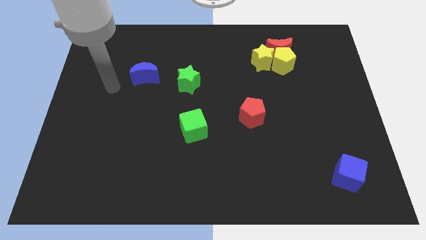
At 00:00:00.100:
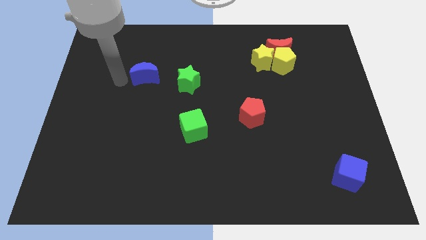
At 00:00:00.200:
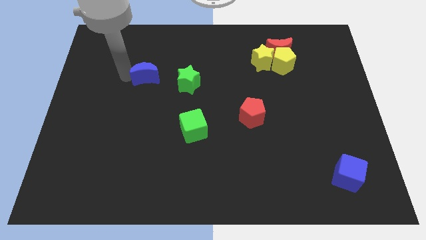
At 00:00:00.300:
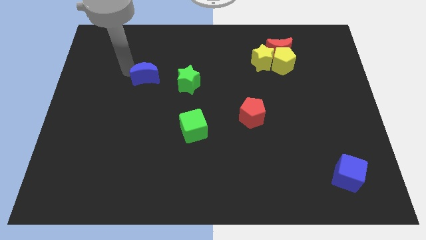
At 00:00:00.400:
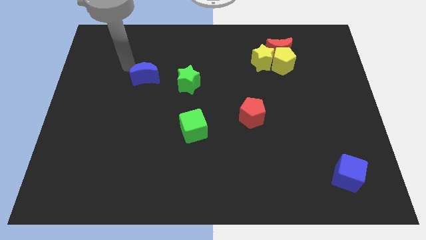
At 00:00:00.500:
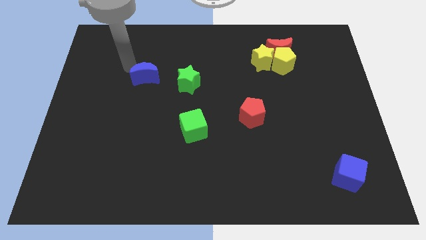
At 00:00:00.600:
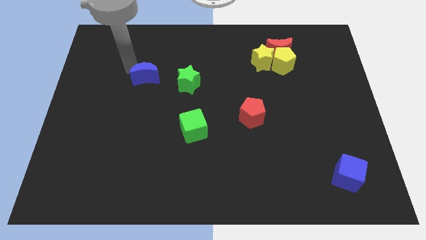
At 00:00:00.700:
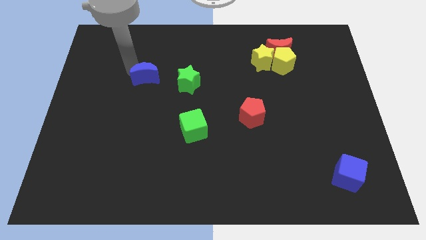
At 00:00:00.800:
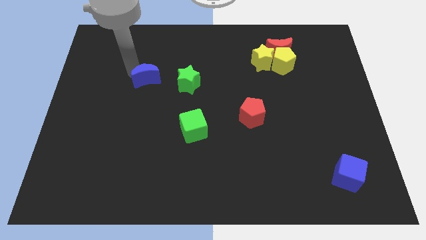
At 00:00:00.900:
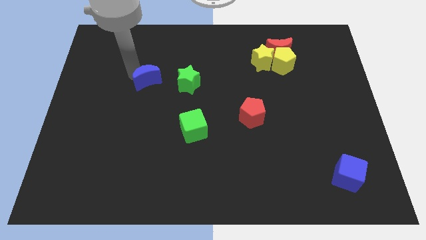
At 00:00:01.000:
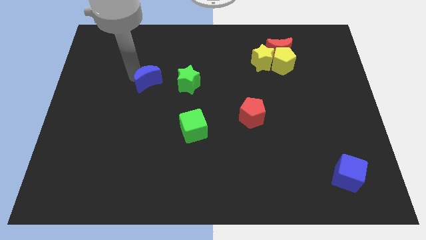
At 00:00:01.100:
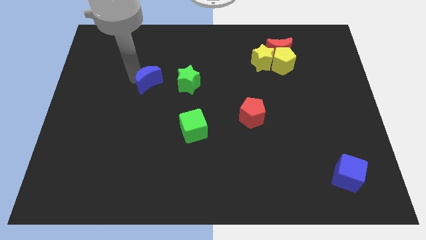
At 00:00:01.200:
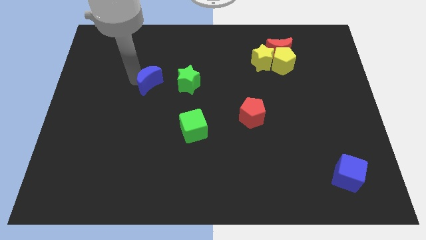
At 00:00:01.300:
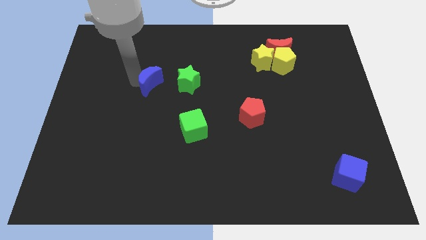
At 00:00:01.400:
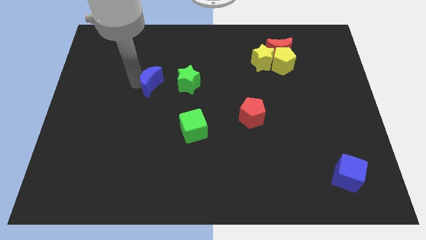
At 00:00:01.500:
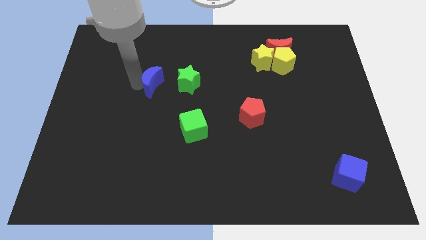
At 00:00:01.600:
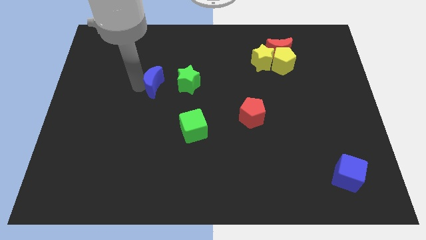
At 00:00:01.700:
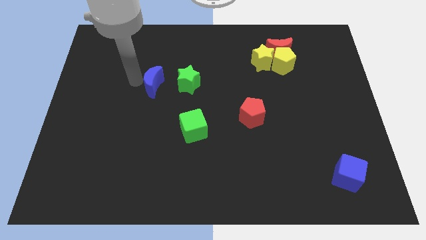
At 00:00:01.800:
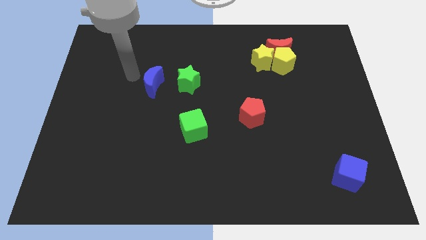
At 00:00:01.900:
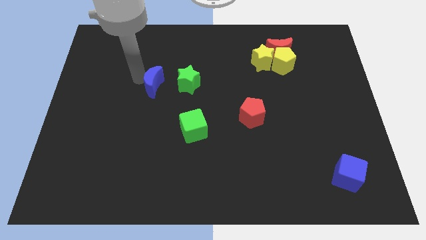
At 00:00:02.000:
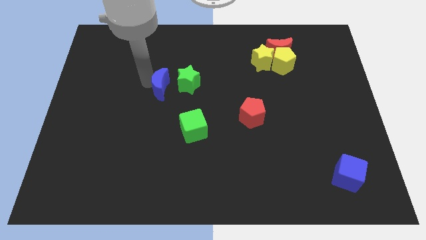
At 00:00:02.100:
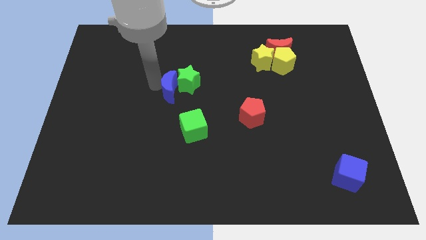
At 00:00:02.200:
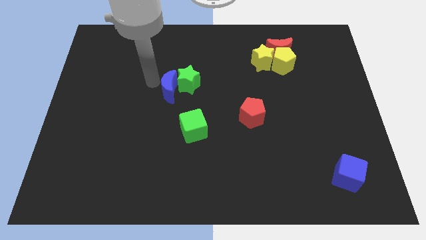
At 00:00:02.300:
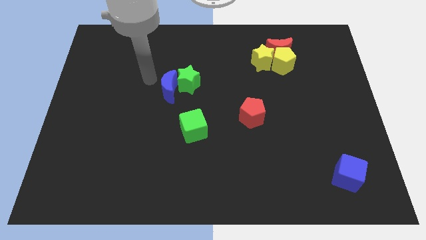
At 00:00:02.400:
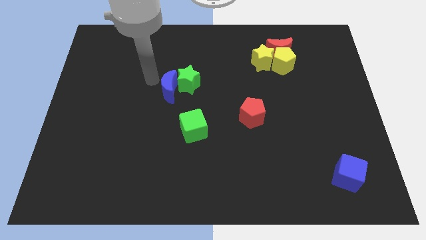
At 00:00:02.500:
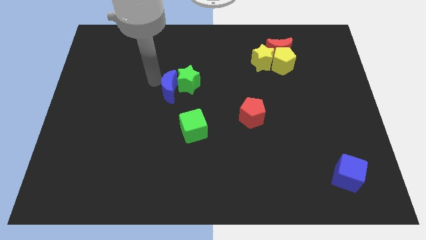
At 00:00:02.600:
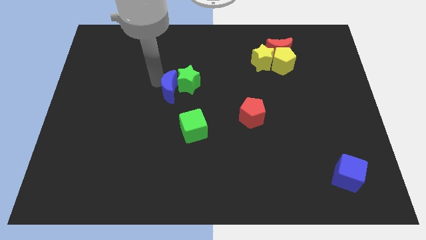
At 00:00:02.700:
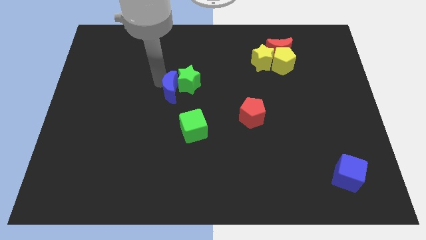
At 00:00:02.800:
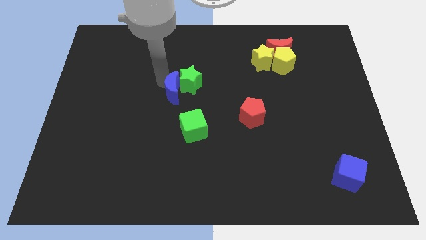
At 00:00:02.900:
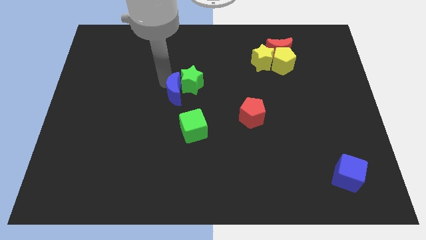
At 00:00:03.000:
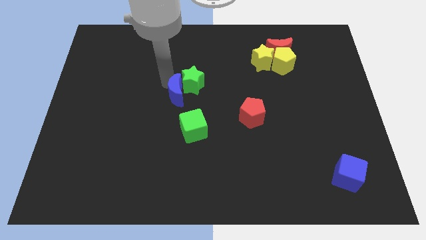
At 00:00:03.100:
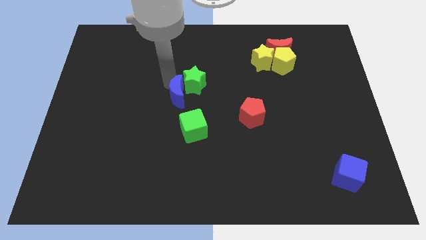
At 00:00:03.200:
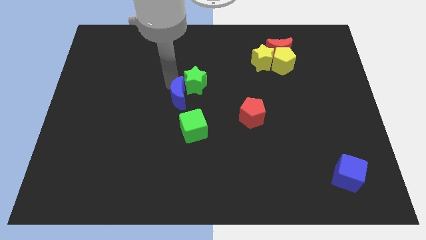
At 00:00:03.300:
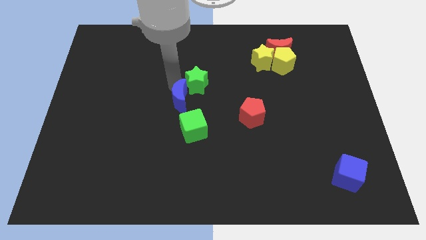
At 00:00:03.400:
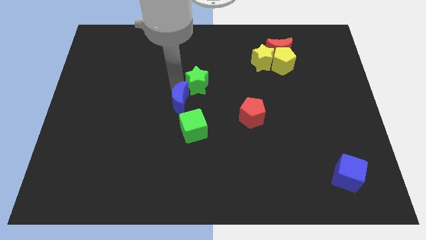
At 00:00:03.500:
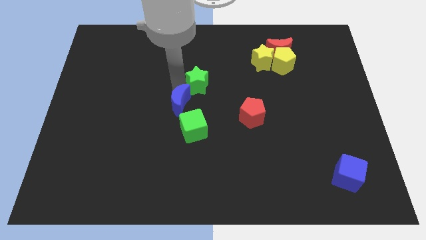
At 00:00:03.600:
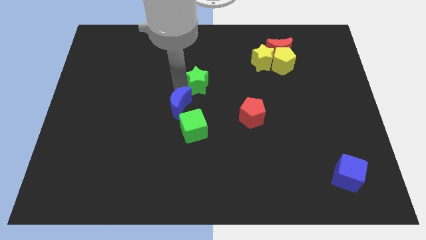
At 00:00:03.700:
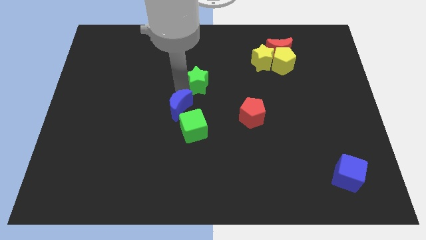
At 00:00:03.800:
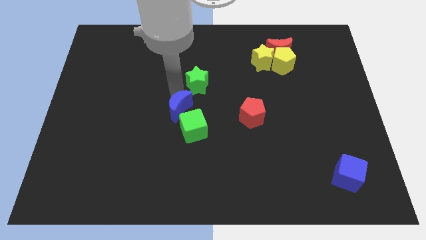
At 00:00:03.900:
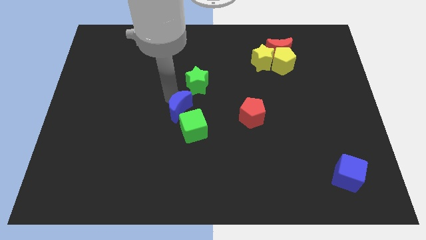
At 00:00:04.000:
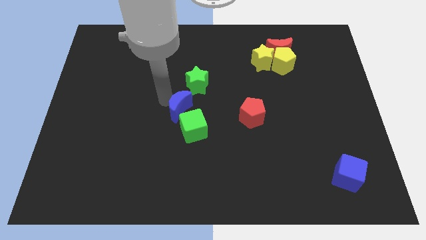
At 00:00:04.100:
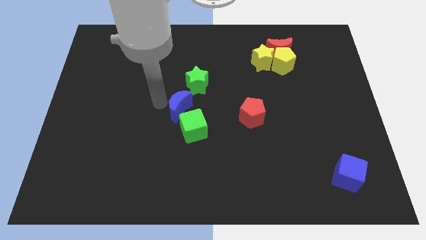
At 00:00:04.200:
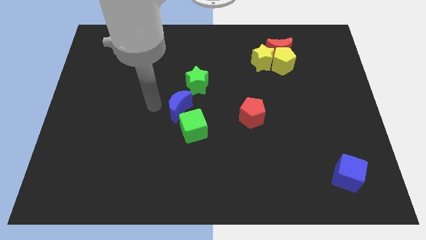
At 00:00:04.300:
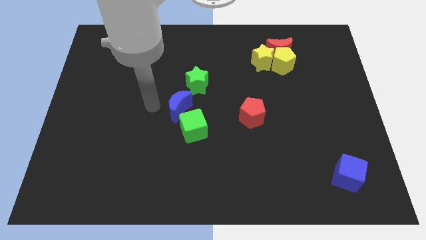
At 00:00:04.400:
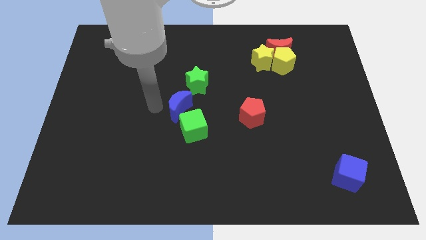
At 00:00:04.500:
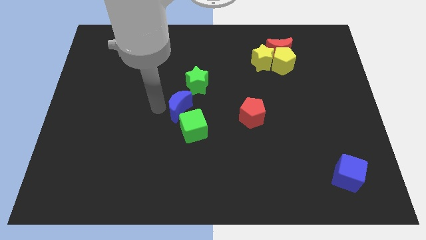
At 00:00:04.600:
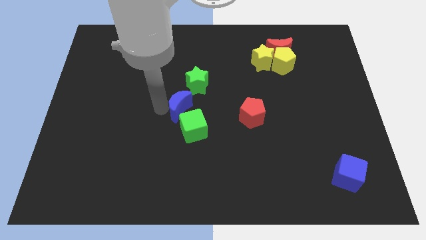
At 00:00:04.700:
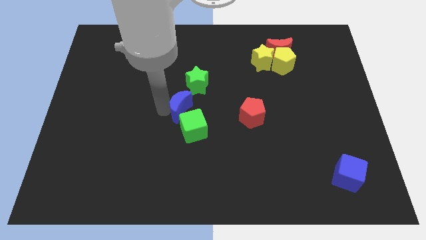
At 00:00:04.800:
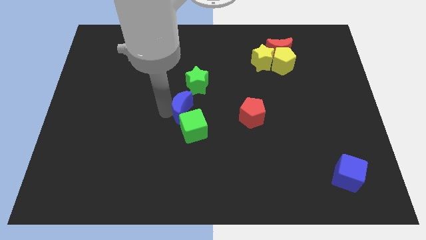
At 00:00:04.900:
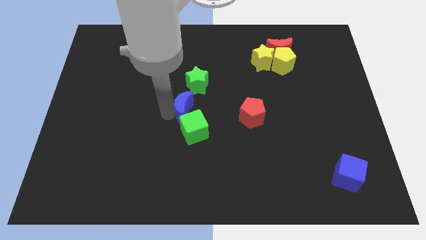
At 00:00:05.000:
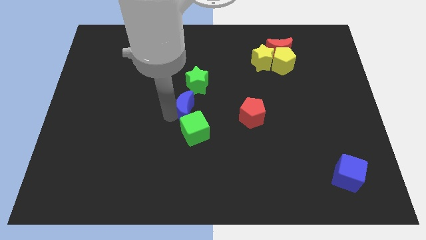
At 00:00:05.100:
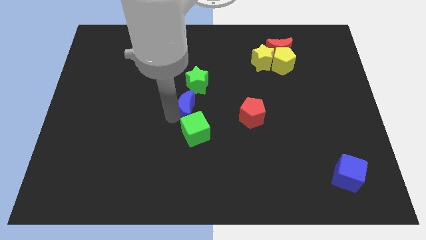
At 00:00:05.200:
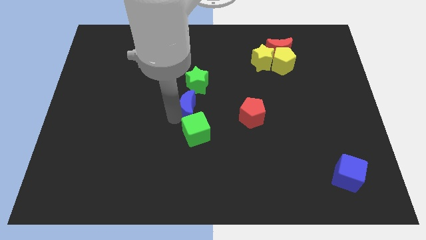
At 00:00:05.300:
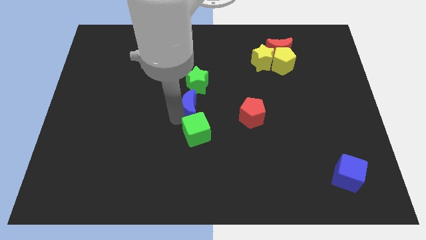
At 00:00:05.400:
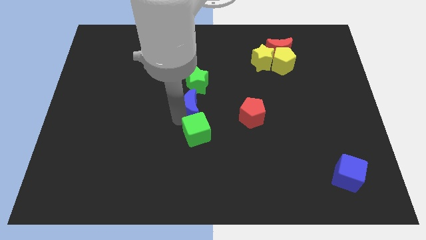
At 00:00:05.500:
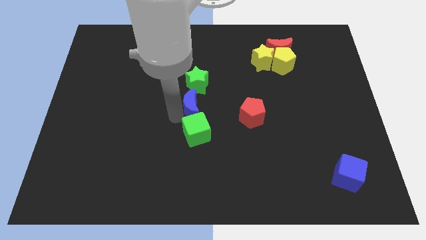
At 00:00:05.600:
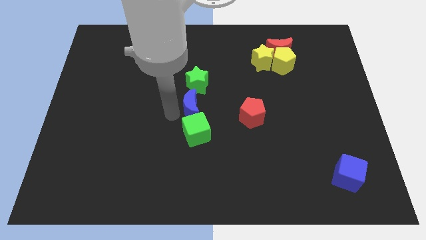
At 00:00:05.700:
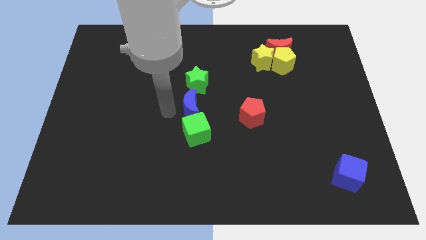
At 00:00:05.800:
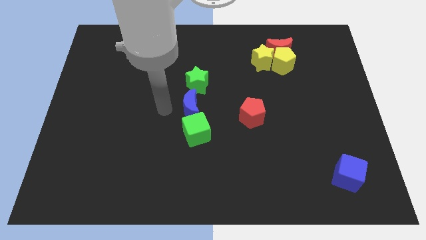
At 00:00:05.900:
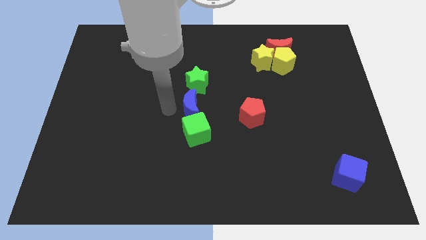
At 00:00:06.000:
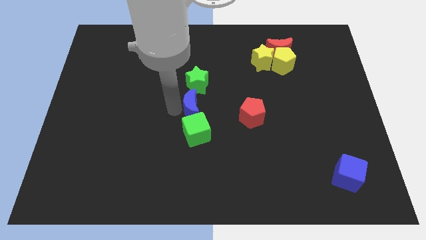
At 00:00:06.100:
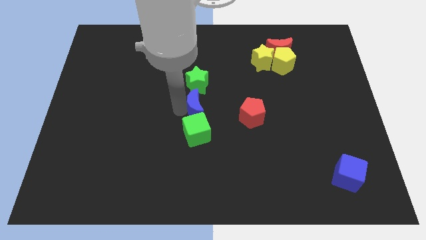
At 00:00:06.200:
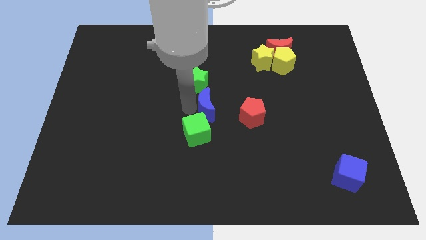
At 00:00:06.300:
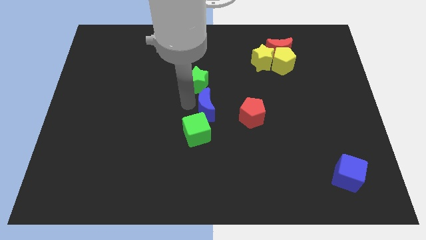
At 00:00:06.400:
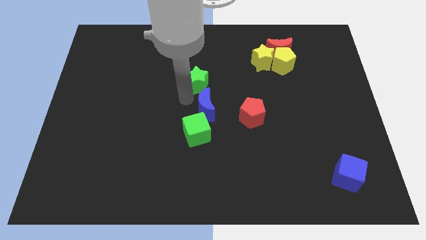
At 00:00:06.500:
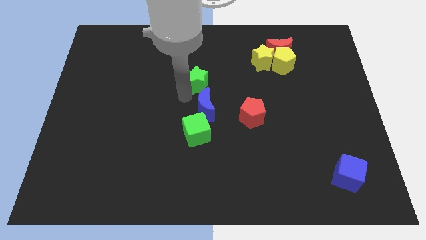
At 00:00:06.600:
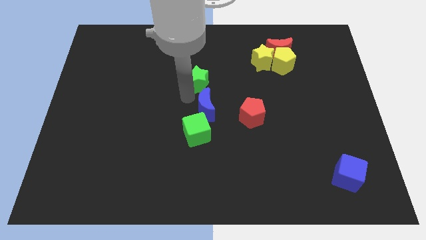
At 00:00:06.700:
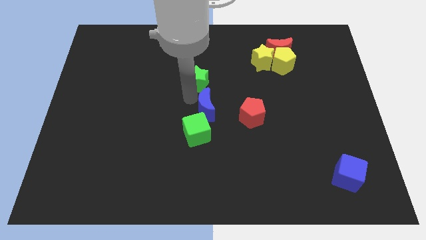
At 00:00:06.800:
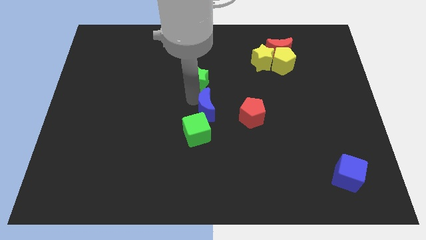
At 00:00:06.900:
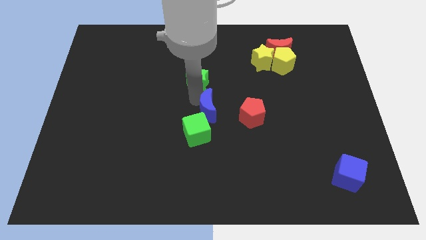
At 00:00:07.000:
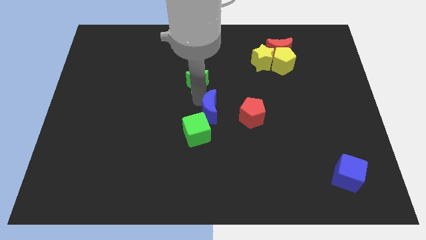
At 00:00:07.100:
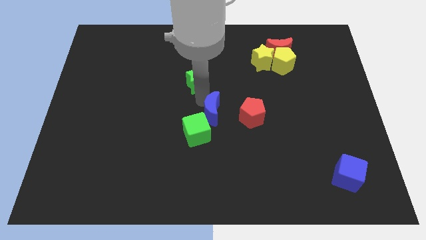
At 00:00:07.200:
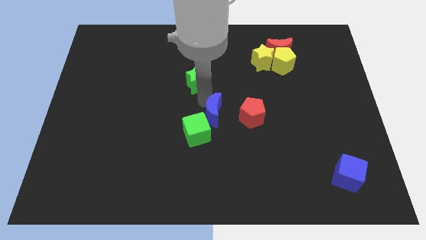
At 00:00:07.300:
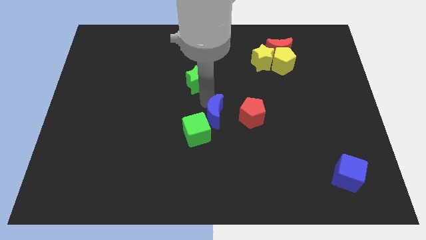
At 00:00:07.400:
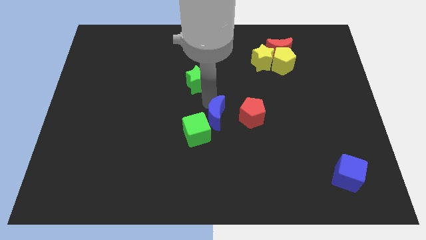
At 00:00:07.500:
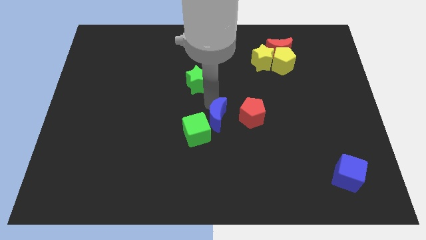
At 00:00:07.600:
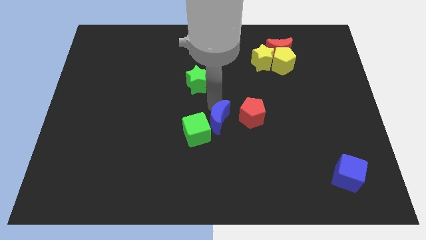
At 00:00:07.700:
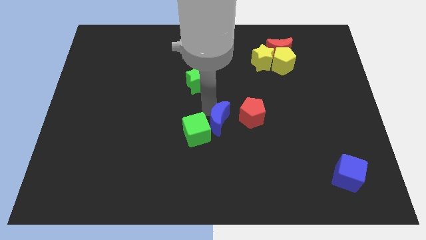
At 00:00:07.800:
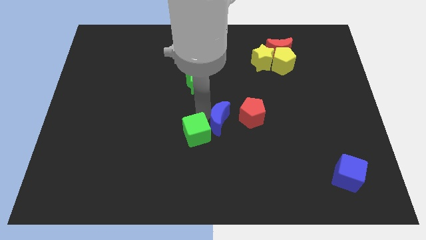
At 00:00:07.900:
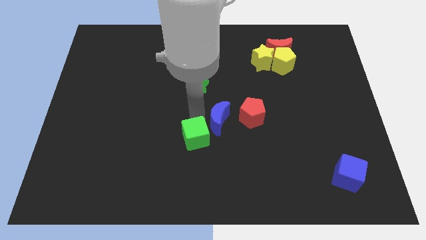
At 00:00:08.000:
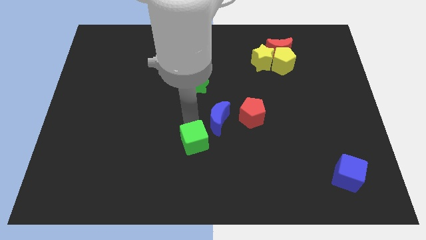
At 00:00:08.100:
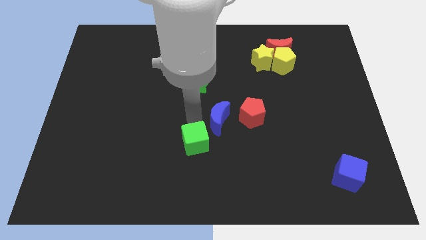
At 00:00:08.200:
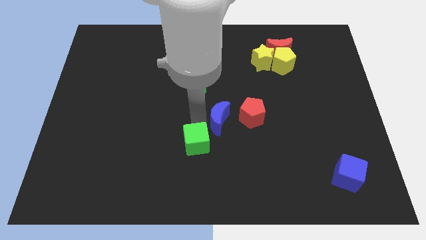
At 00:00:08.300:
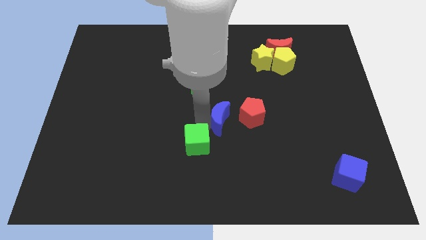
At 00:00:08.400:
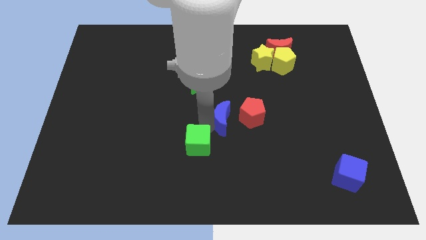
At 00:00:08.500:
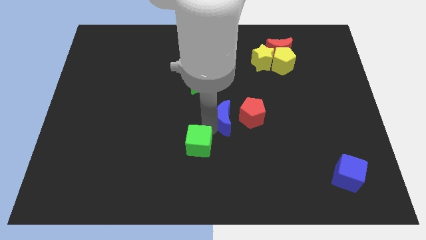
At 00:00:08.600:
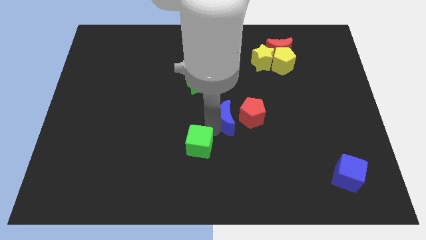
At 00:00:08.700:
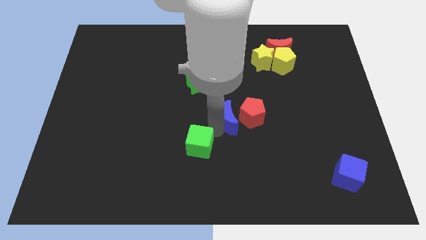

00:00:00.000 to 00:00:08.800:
push the blue moon next to the red pentagon
